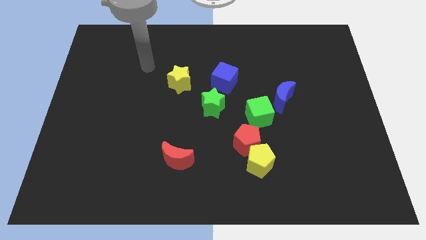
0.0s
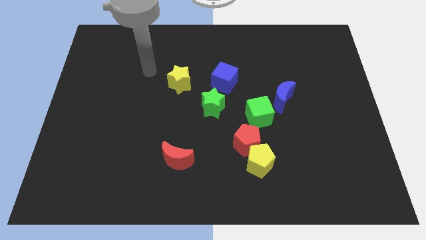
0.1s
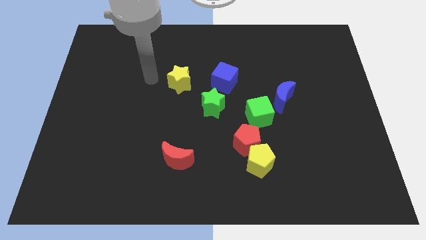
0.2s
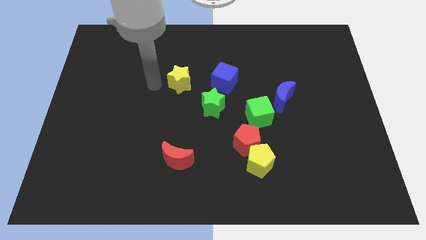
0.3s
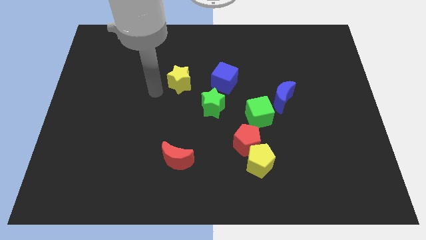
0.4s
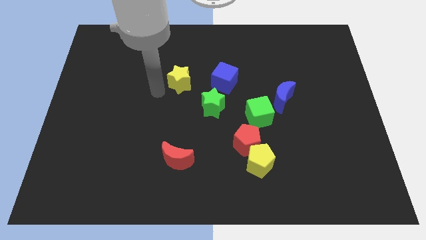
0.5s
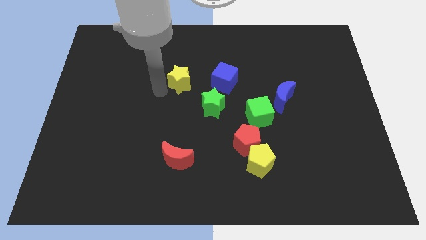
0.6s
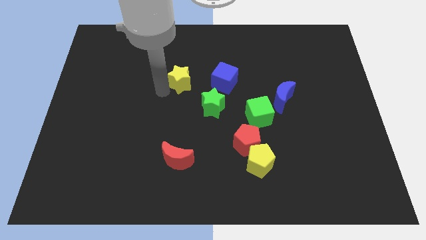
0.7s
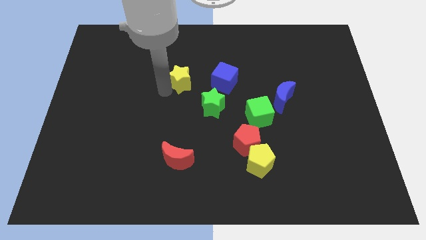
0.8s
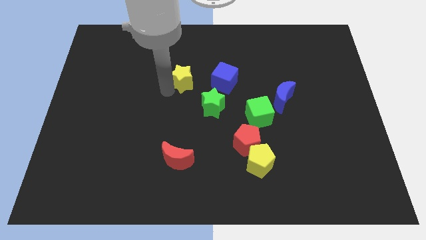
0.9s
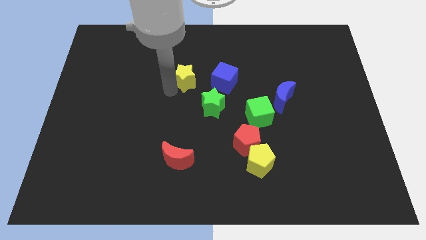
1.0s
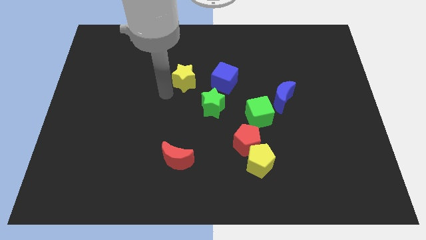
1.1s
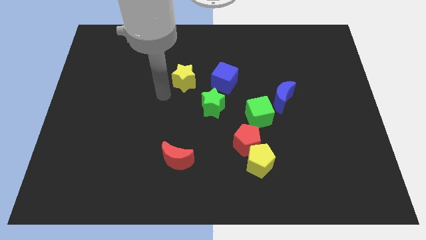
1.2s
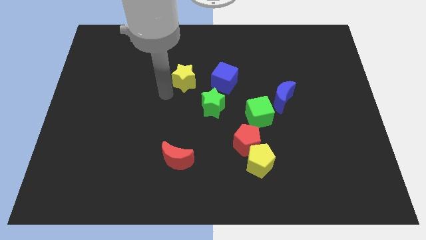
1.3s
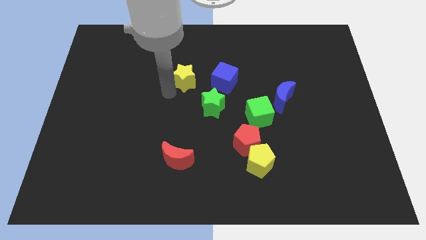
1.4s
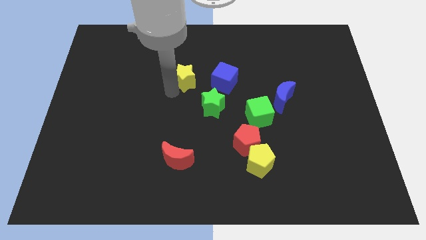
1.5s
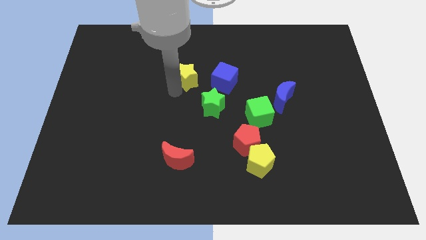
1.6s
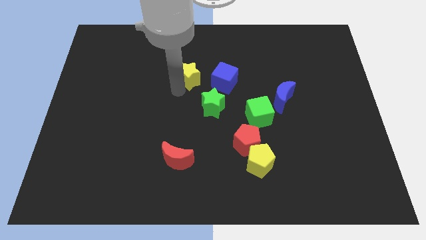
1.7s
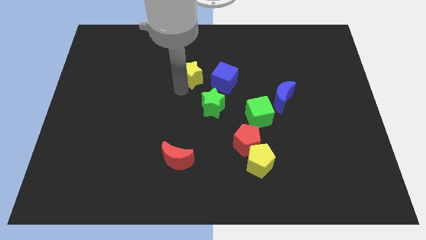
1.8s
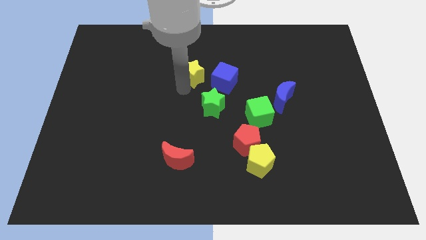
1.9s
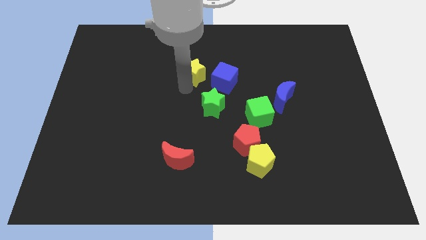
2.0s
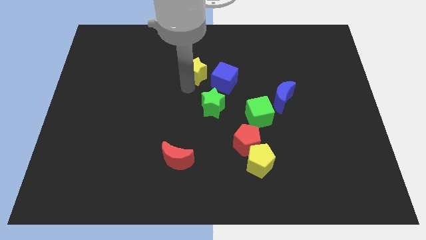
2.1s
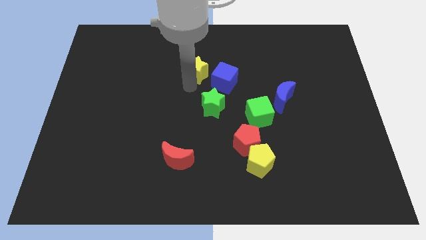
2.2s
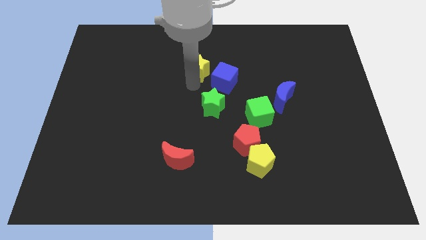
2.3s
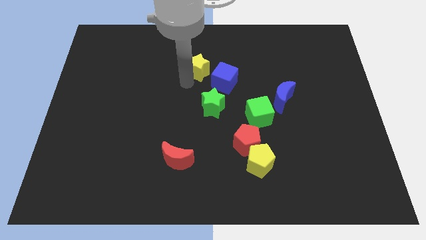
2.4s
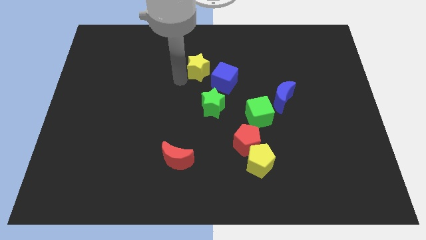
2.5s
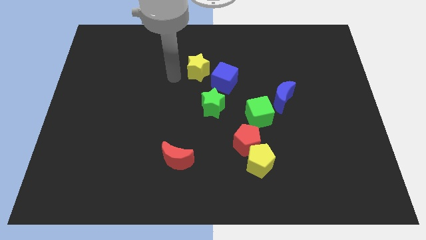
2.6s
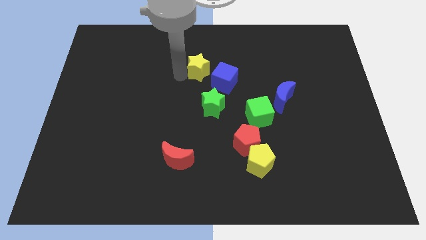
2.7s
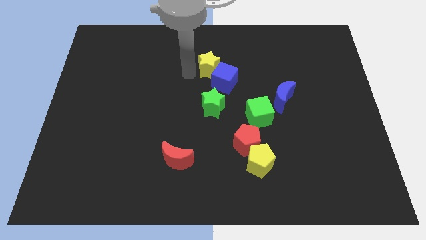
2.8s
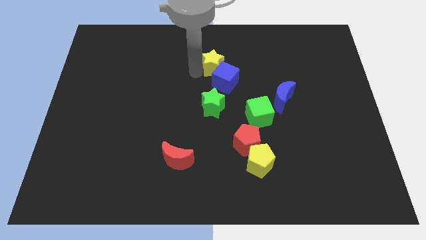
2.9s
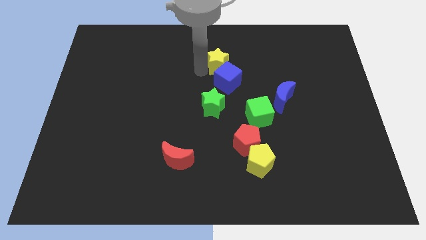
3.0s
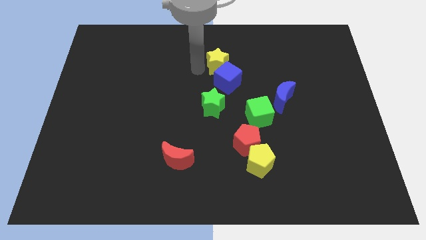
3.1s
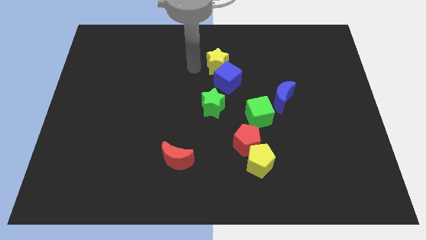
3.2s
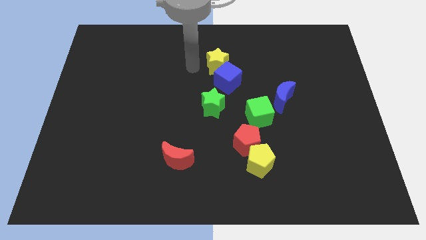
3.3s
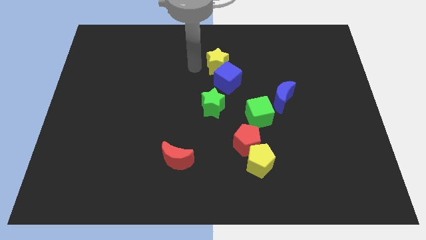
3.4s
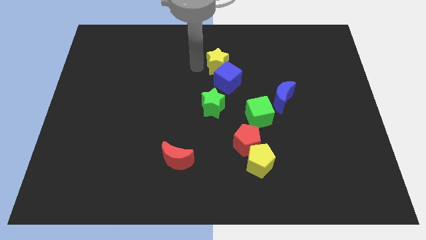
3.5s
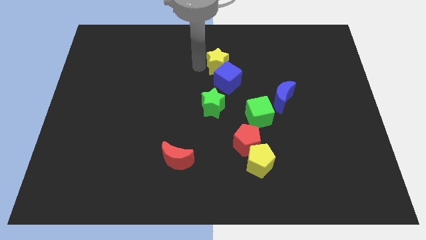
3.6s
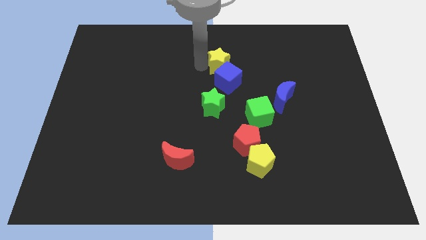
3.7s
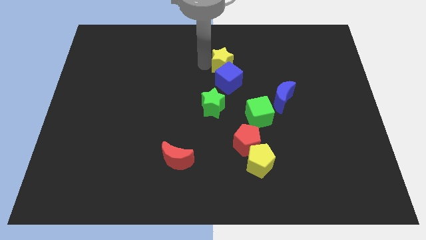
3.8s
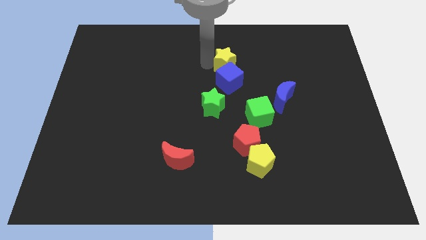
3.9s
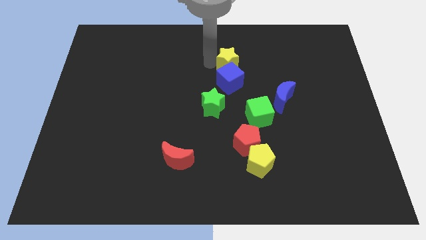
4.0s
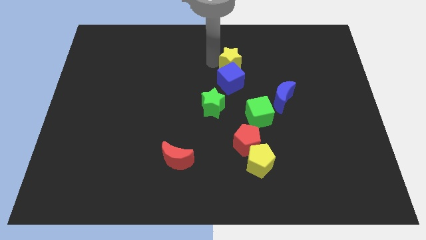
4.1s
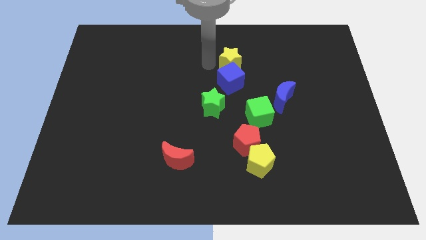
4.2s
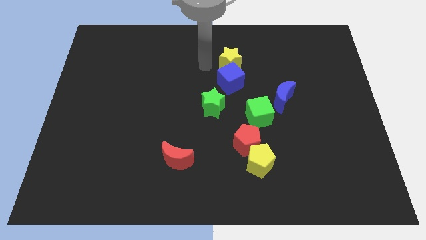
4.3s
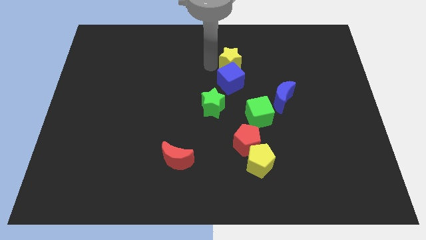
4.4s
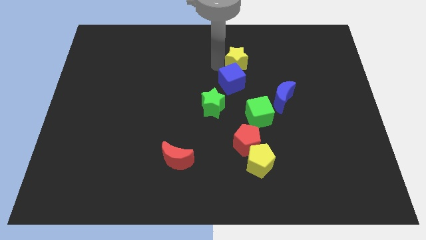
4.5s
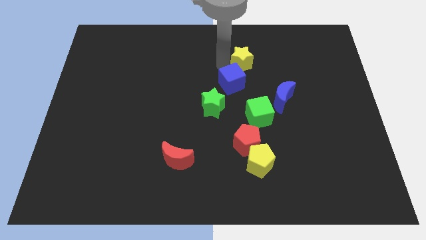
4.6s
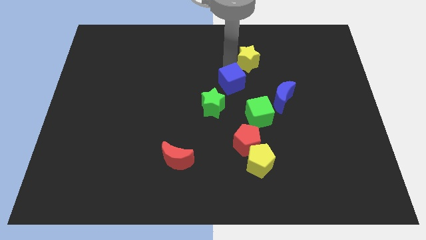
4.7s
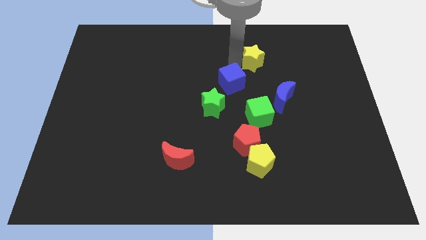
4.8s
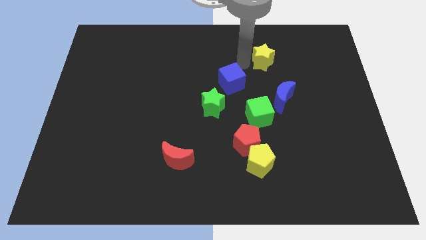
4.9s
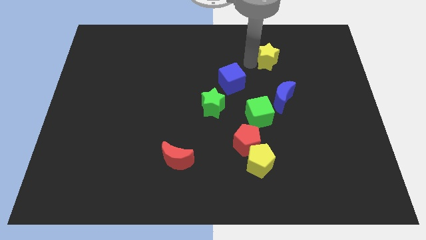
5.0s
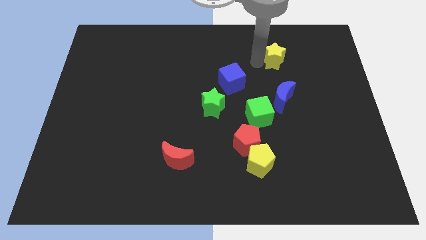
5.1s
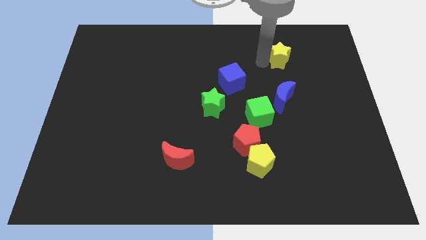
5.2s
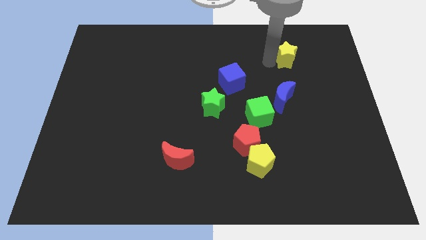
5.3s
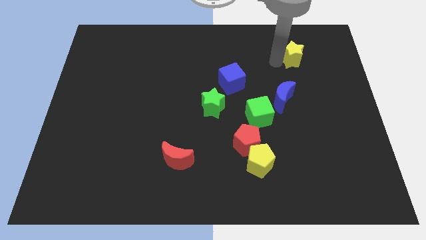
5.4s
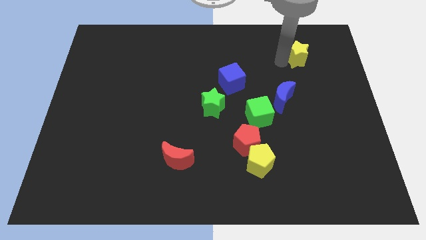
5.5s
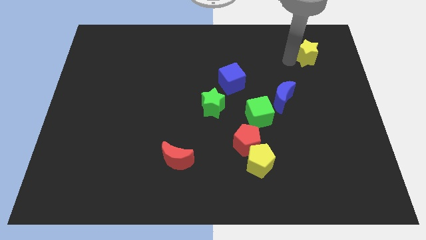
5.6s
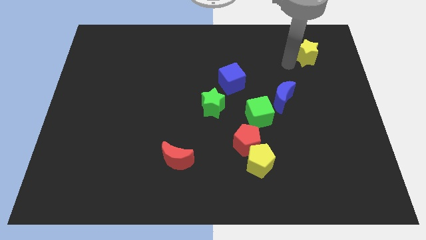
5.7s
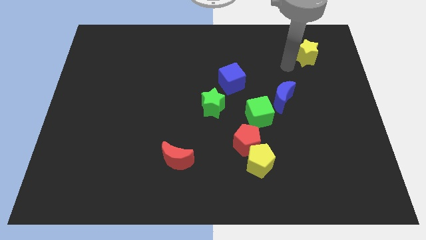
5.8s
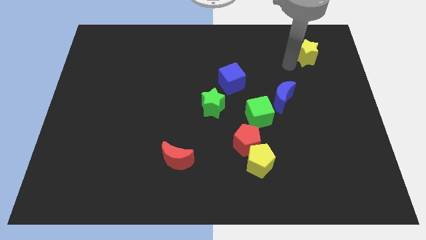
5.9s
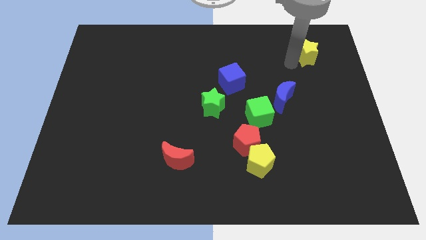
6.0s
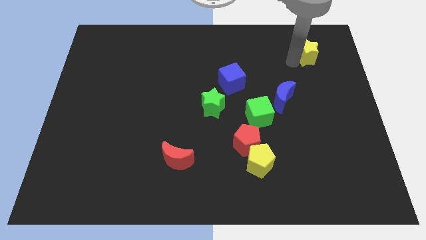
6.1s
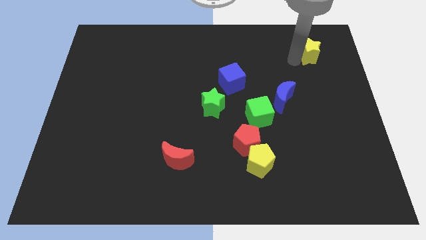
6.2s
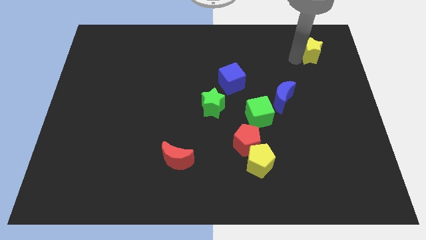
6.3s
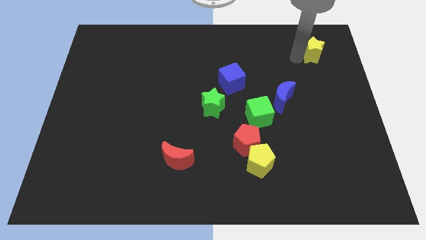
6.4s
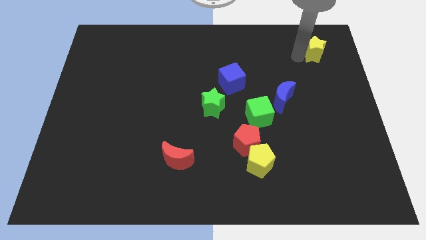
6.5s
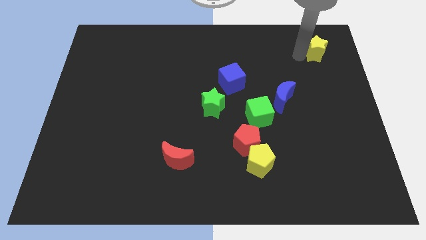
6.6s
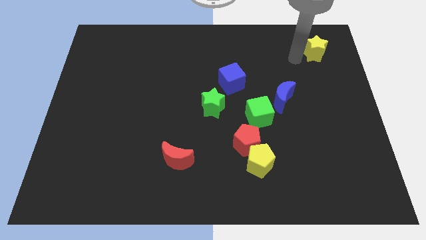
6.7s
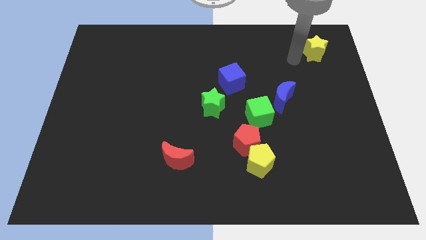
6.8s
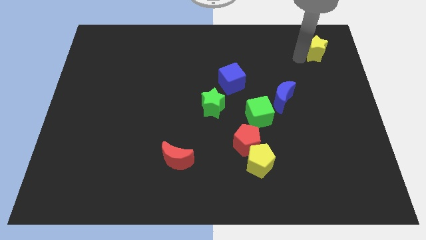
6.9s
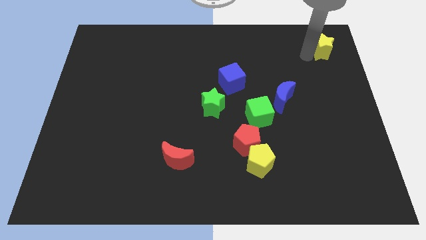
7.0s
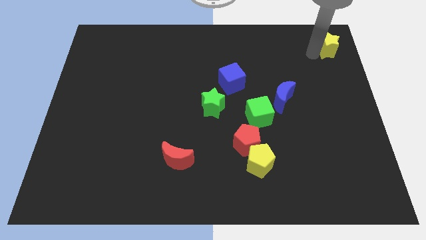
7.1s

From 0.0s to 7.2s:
push the yellow star to the upper right corner
